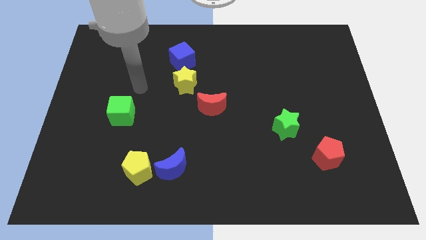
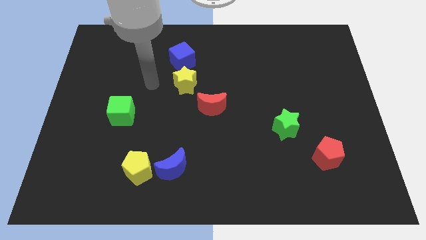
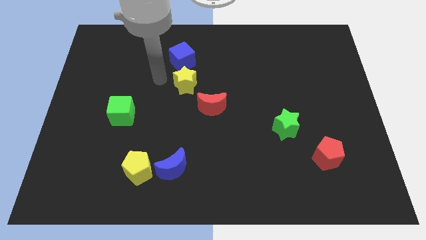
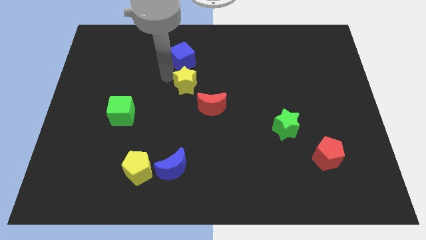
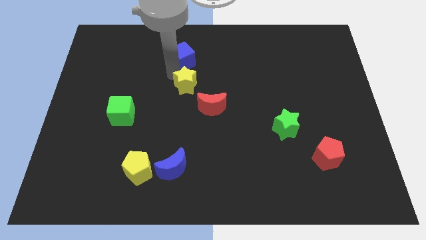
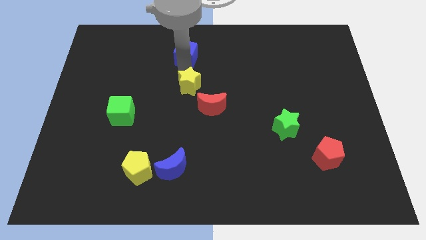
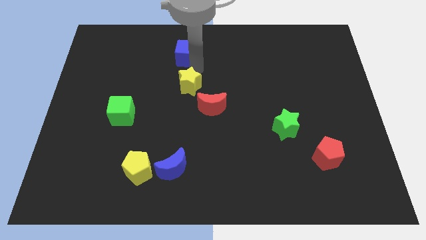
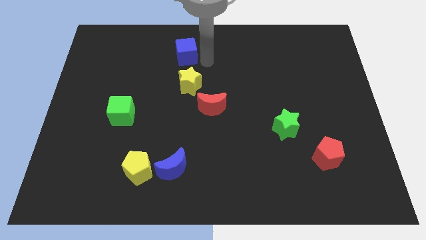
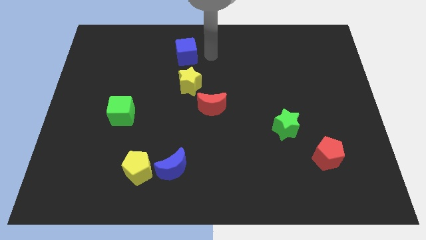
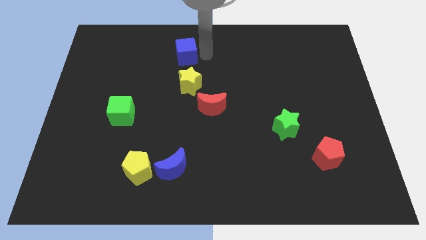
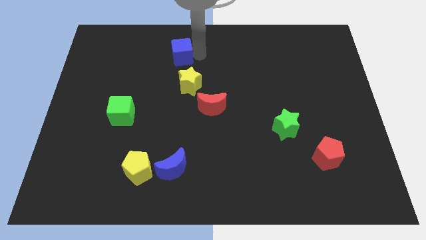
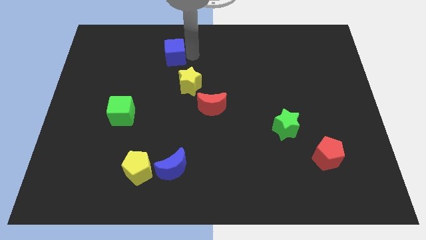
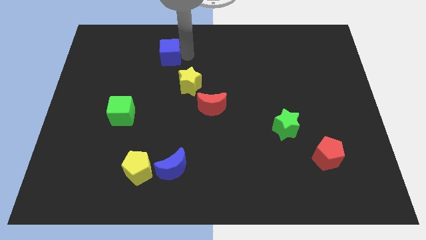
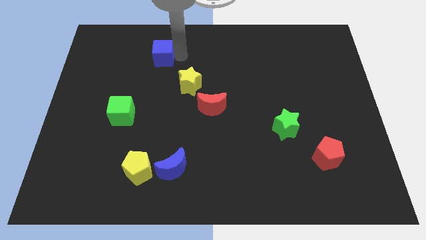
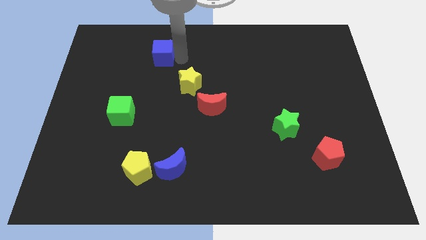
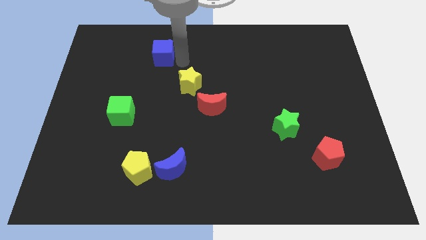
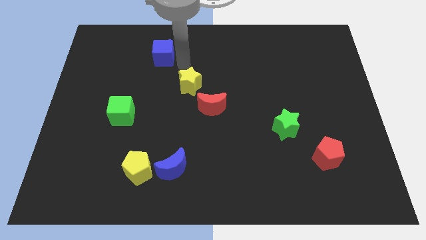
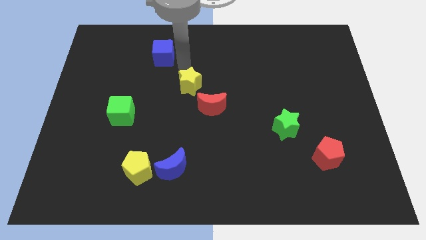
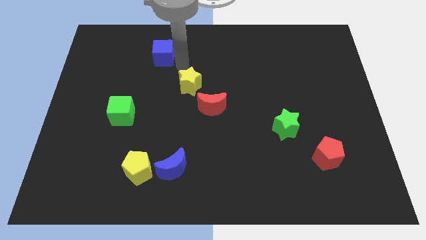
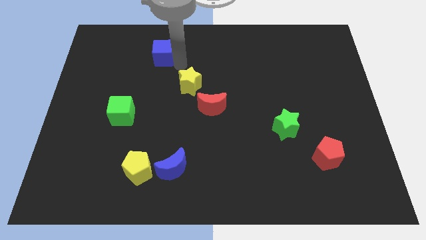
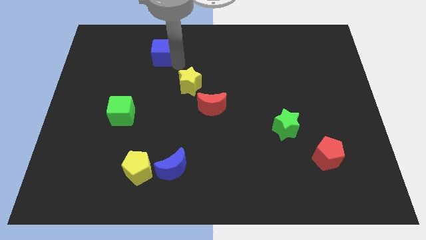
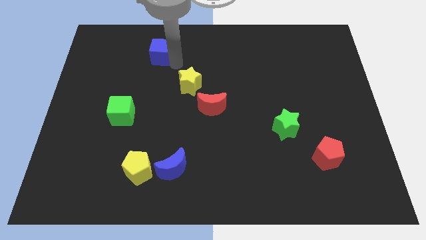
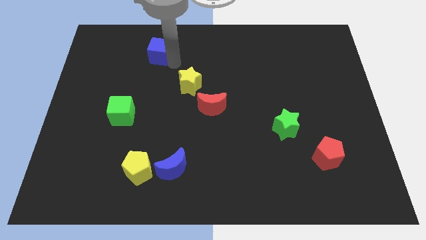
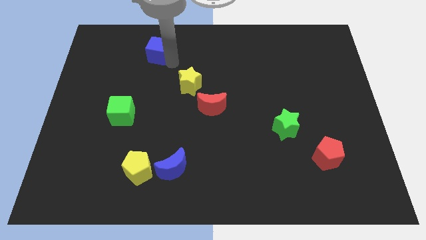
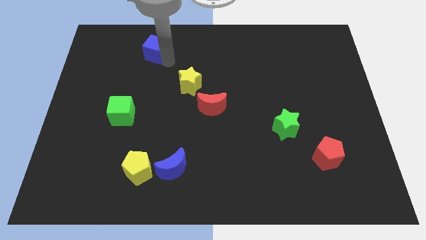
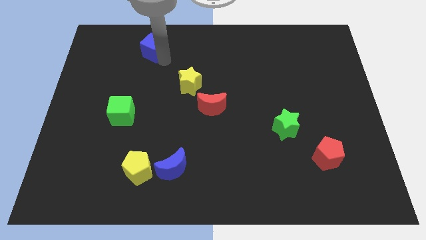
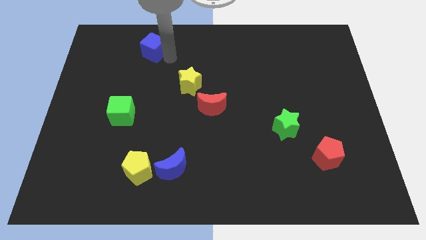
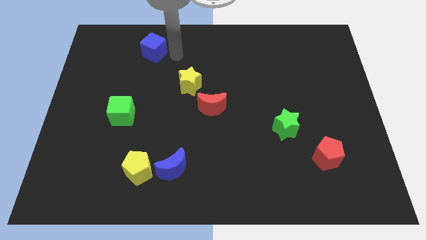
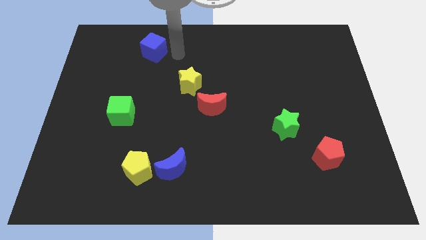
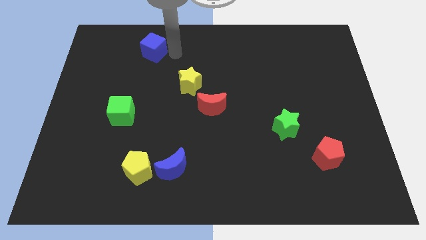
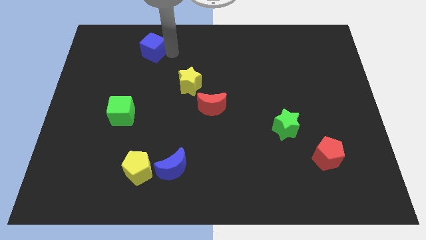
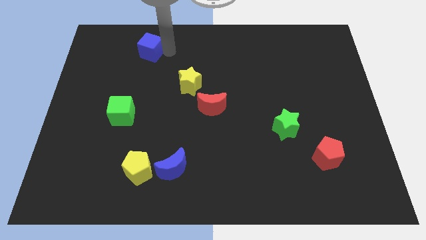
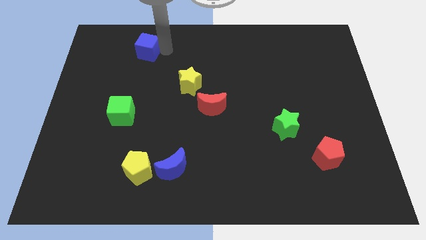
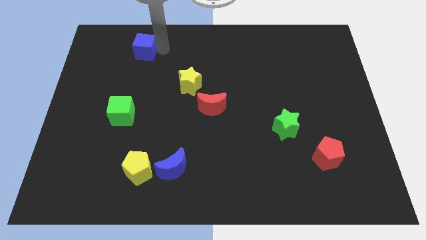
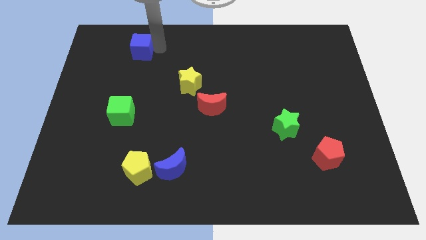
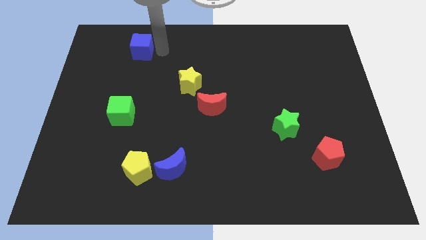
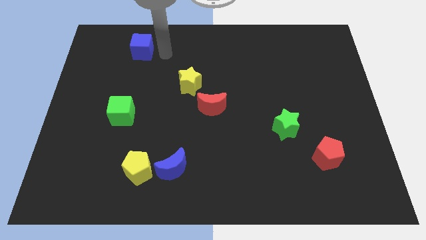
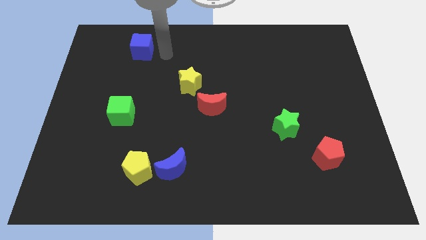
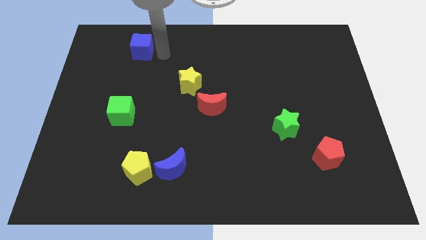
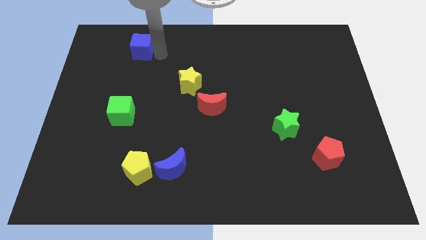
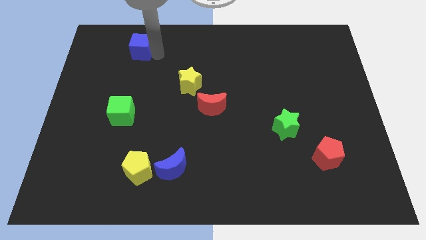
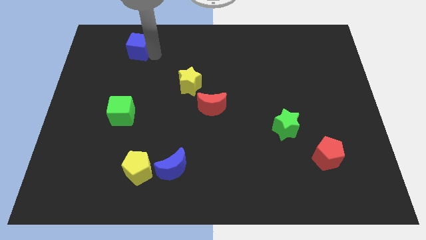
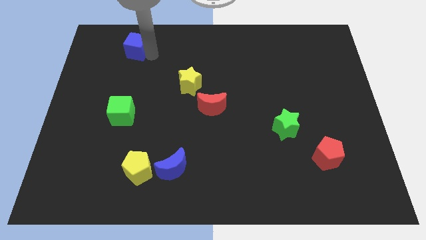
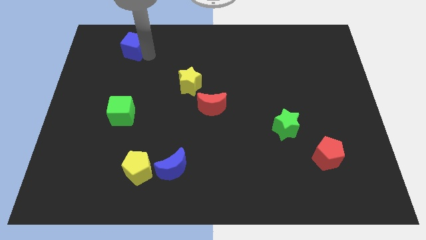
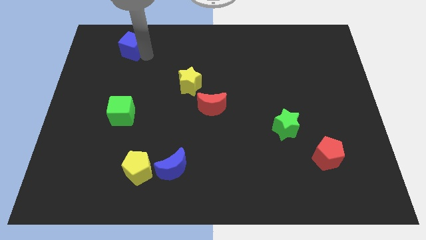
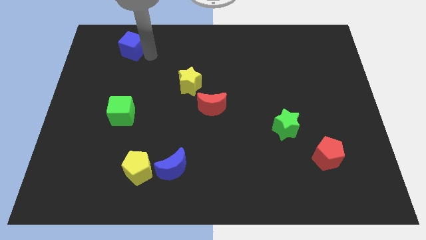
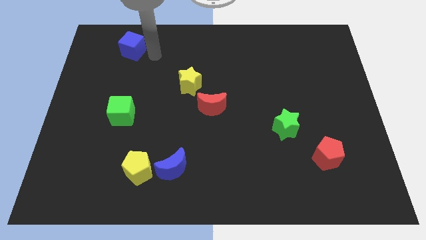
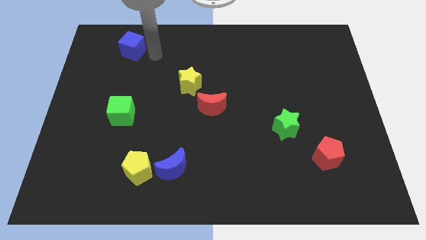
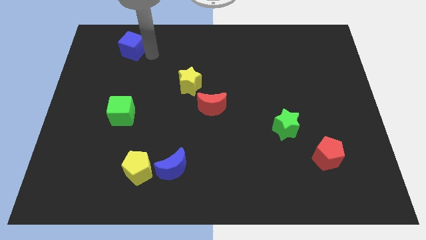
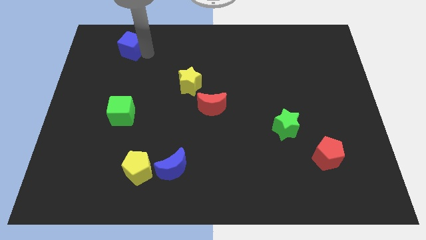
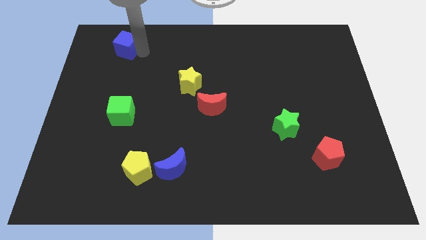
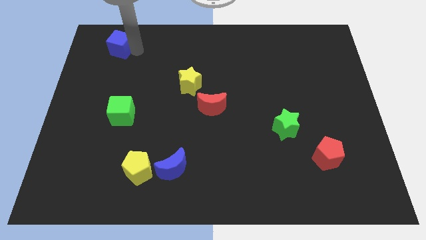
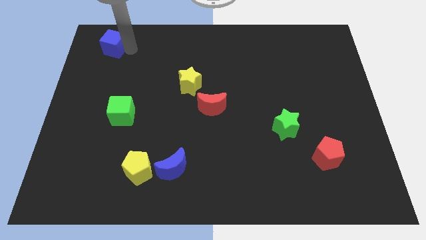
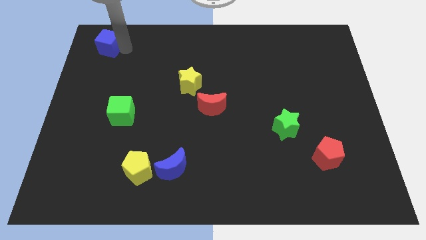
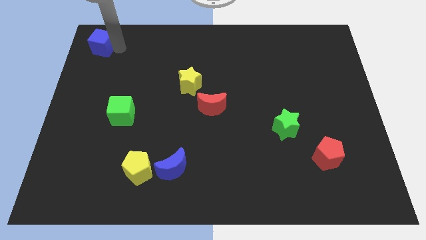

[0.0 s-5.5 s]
slide the blue cube to the top left
